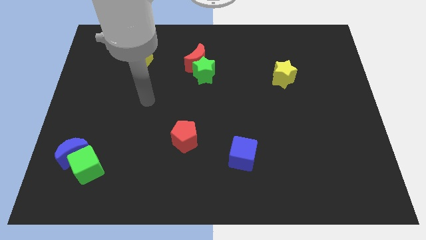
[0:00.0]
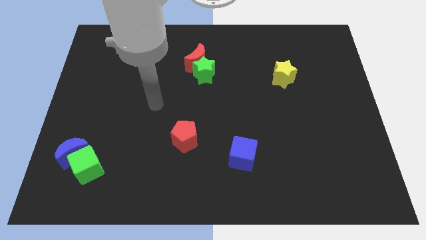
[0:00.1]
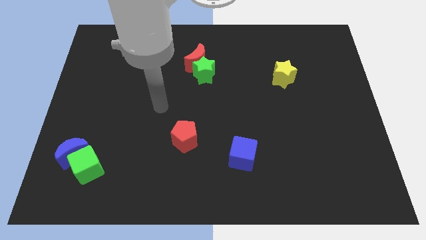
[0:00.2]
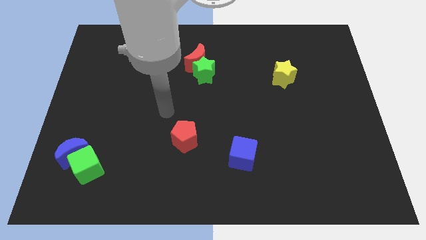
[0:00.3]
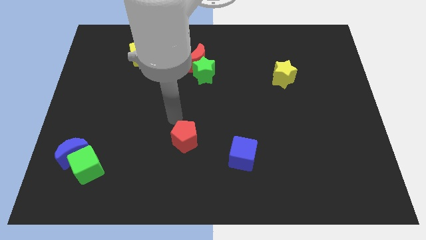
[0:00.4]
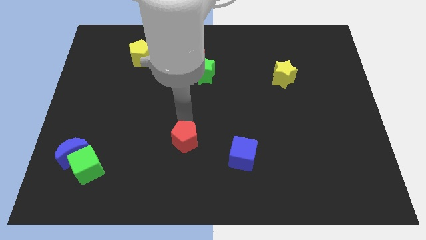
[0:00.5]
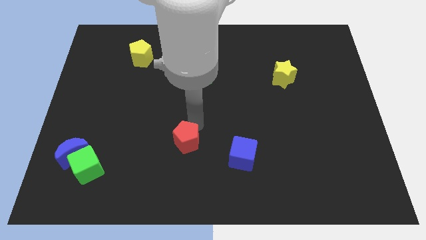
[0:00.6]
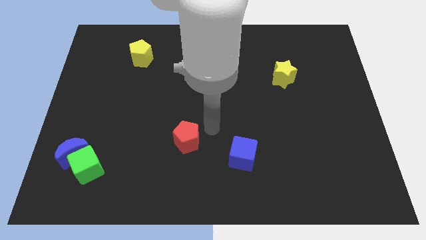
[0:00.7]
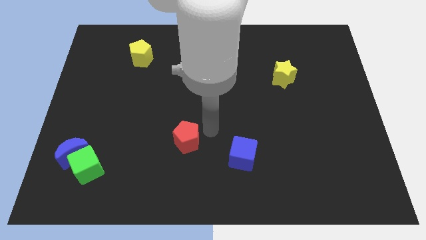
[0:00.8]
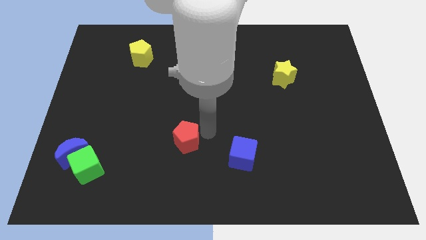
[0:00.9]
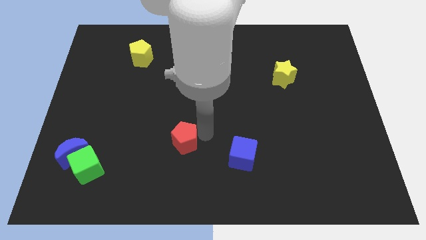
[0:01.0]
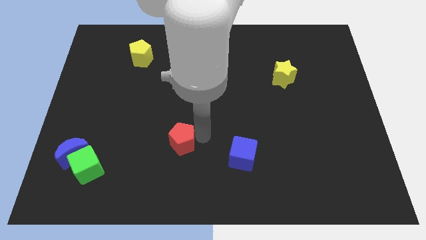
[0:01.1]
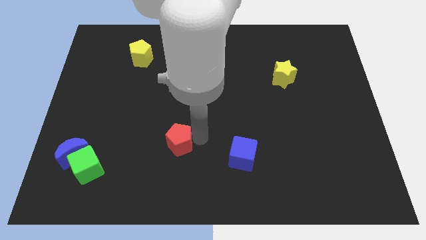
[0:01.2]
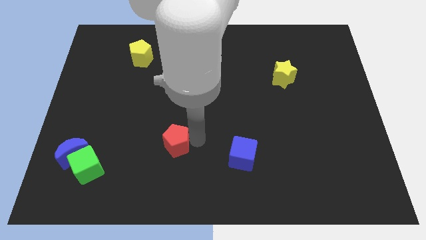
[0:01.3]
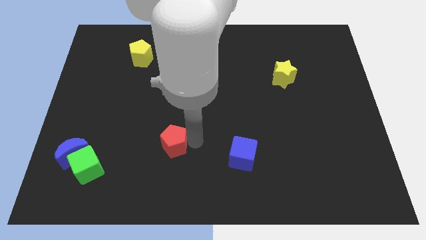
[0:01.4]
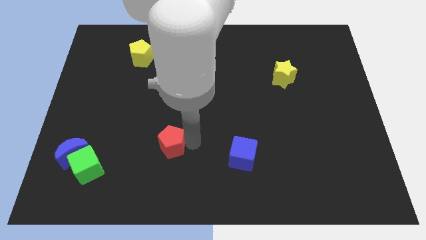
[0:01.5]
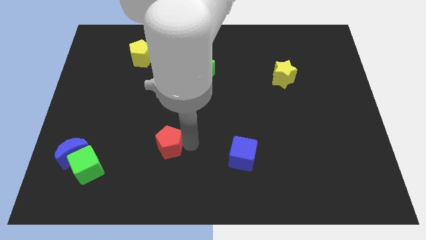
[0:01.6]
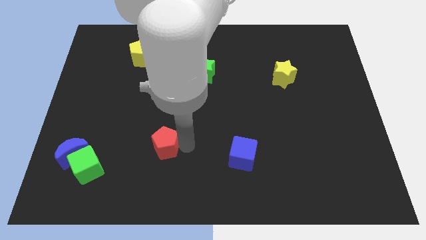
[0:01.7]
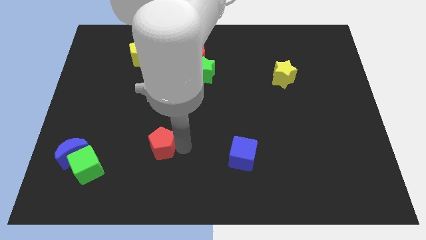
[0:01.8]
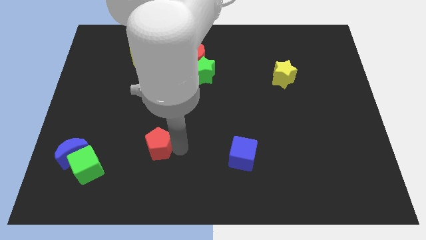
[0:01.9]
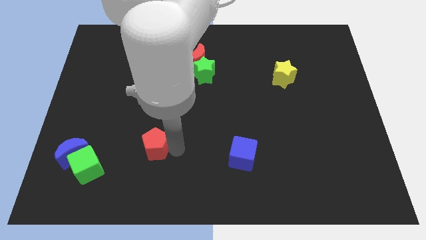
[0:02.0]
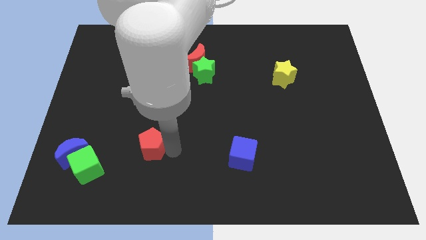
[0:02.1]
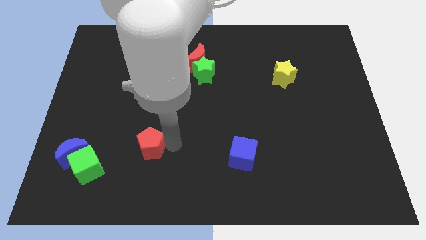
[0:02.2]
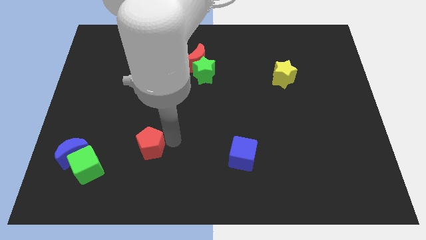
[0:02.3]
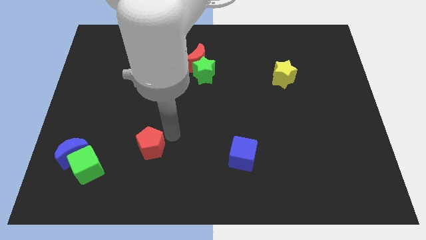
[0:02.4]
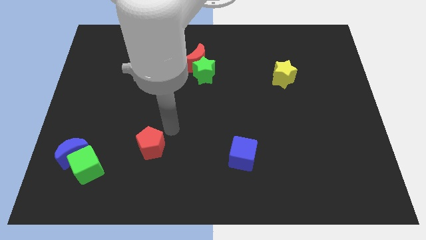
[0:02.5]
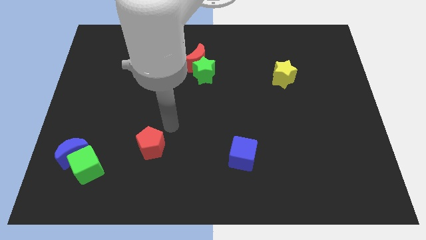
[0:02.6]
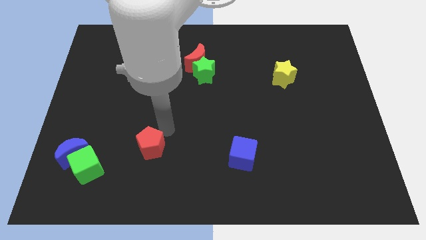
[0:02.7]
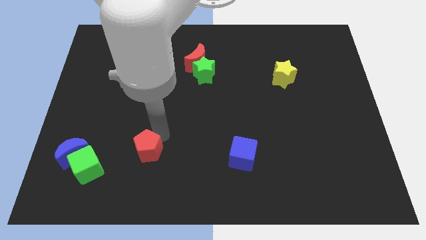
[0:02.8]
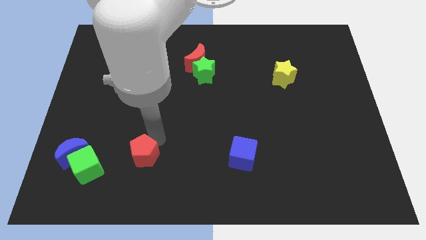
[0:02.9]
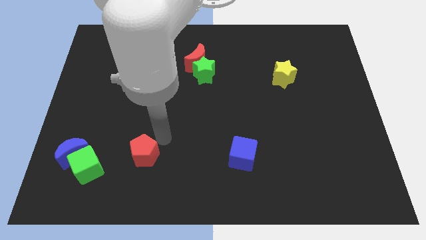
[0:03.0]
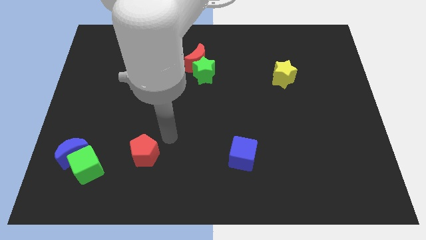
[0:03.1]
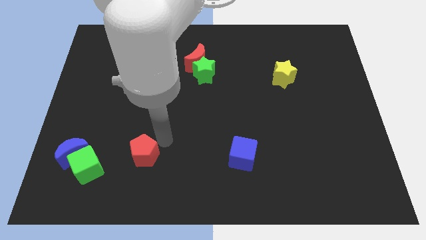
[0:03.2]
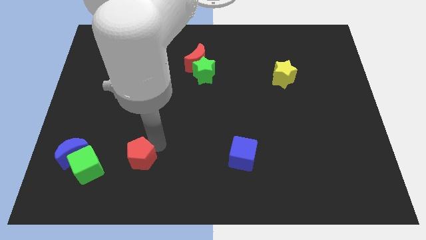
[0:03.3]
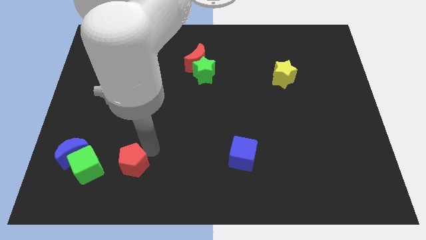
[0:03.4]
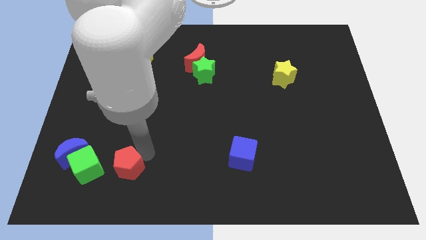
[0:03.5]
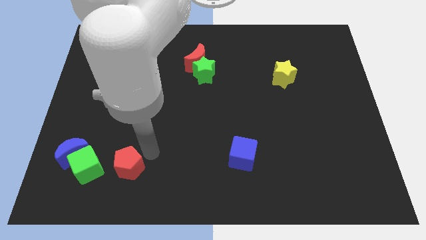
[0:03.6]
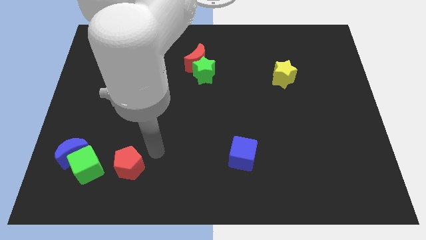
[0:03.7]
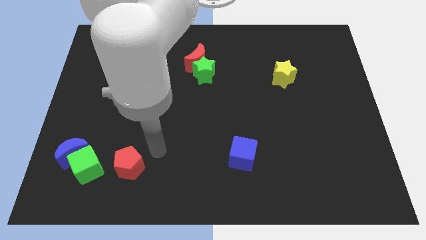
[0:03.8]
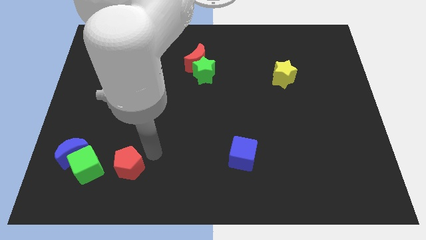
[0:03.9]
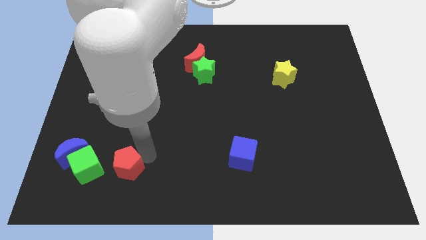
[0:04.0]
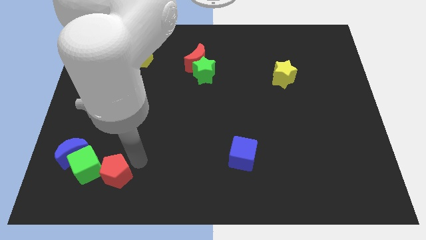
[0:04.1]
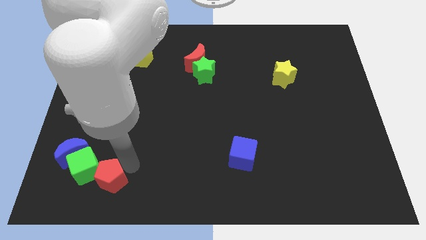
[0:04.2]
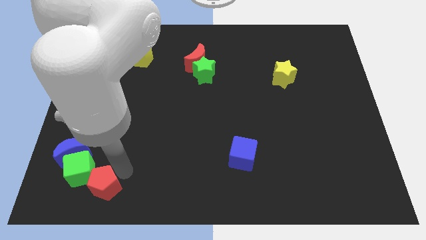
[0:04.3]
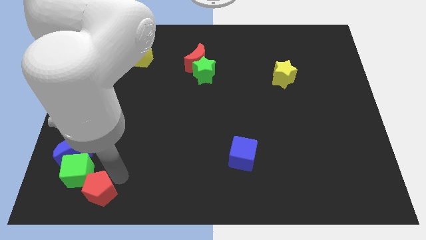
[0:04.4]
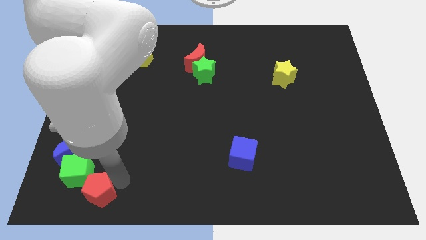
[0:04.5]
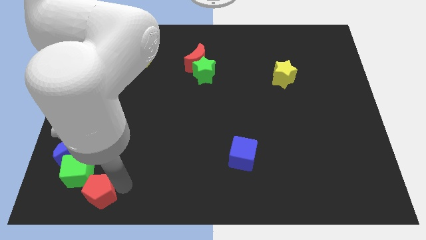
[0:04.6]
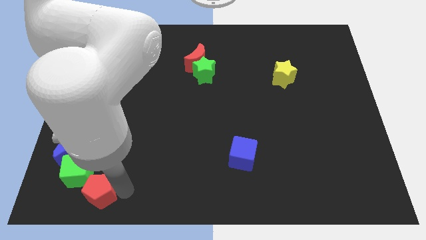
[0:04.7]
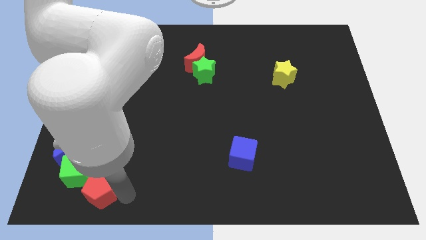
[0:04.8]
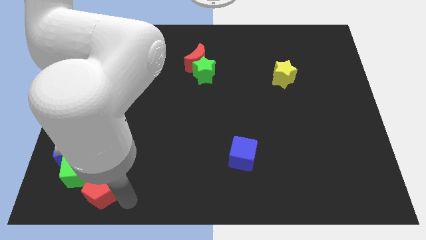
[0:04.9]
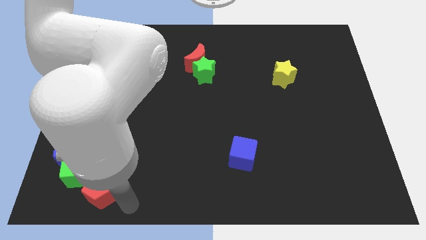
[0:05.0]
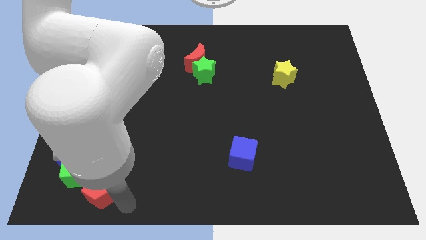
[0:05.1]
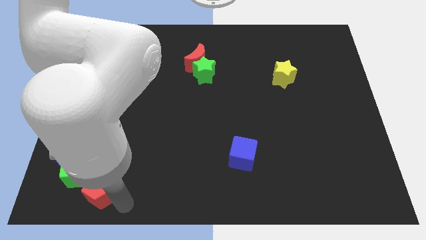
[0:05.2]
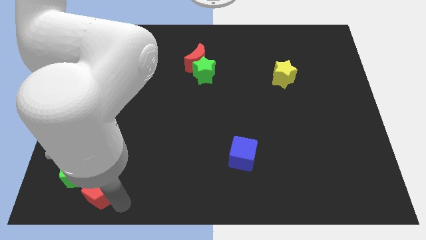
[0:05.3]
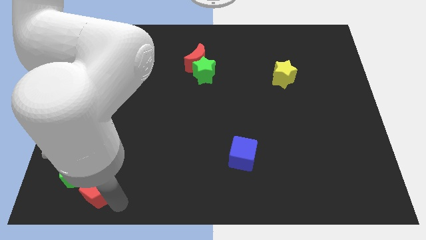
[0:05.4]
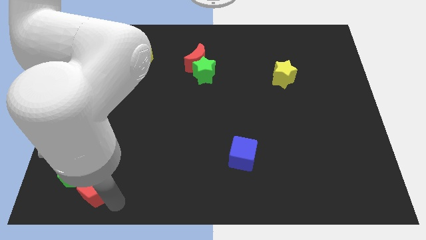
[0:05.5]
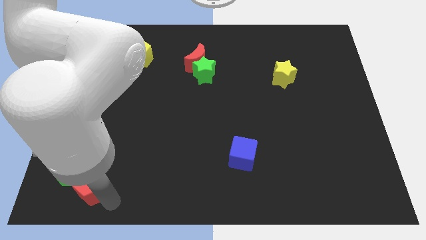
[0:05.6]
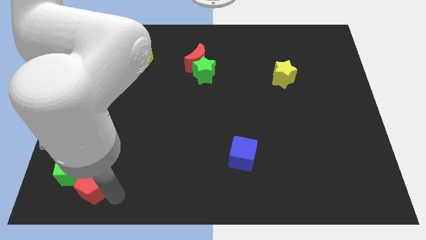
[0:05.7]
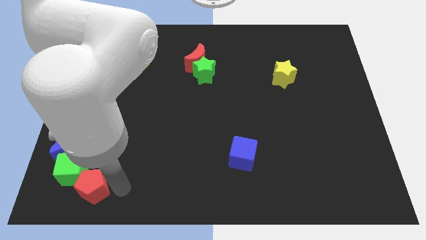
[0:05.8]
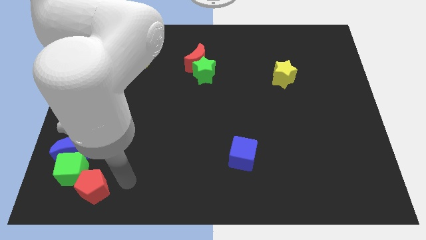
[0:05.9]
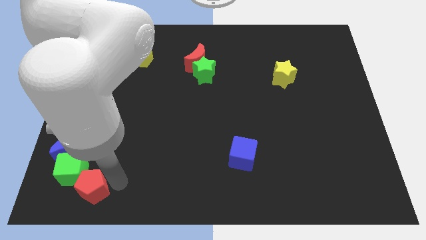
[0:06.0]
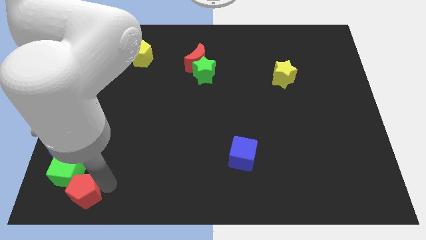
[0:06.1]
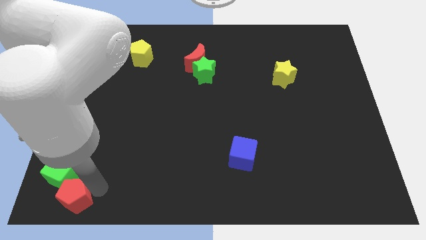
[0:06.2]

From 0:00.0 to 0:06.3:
move the red pentagon to the lower left corner

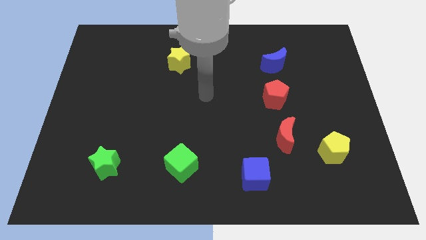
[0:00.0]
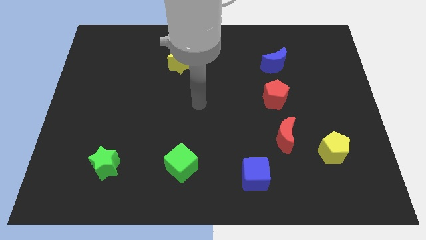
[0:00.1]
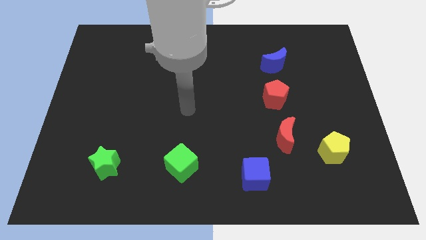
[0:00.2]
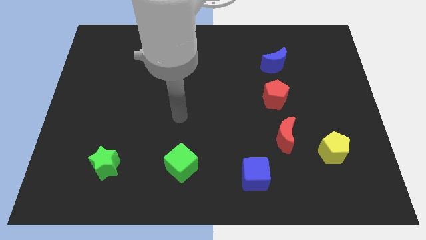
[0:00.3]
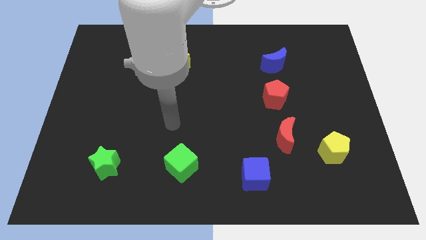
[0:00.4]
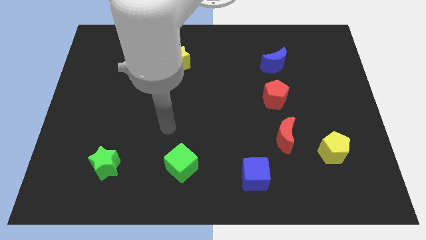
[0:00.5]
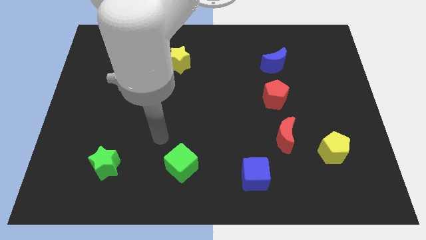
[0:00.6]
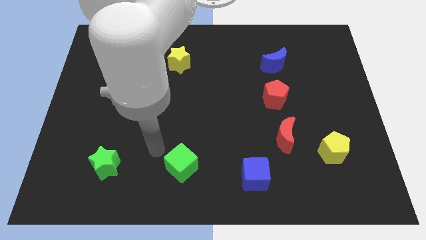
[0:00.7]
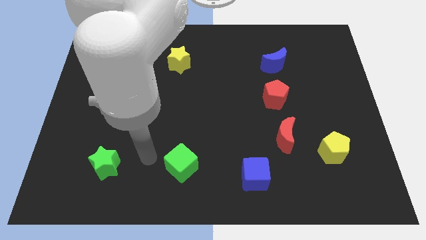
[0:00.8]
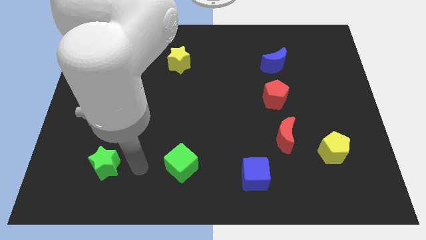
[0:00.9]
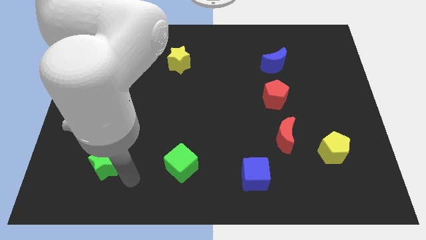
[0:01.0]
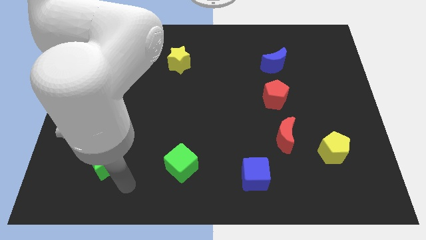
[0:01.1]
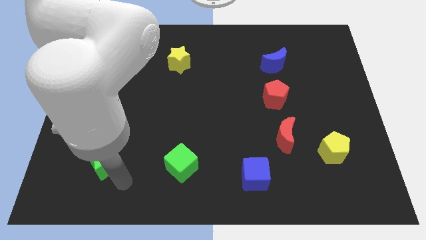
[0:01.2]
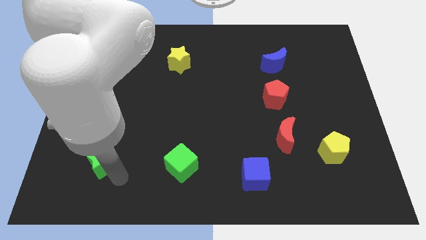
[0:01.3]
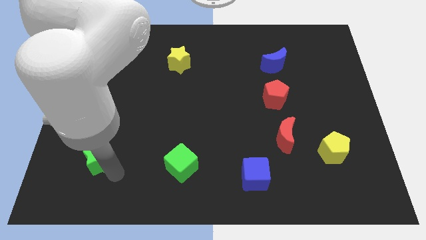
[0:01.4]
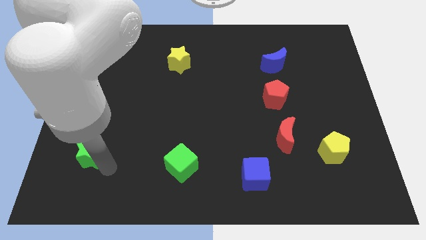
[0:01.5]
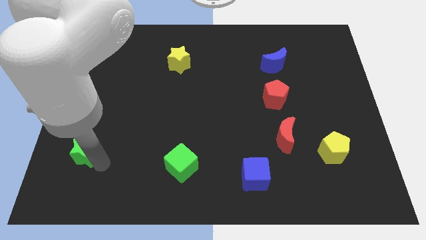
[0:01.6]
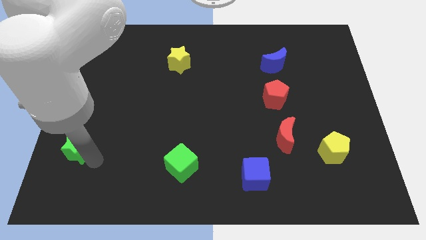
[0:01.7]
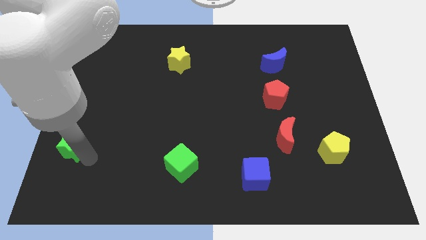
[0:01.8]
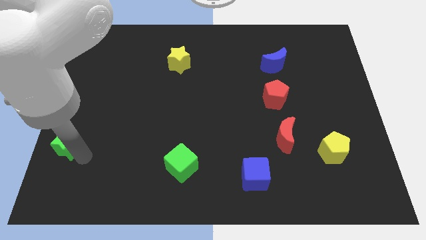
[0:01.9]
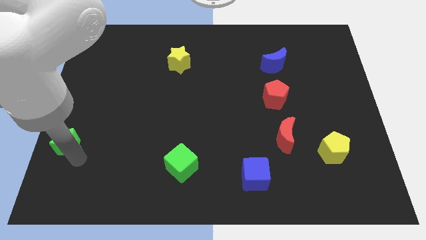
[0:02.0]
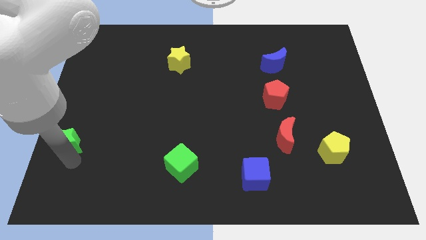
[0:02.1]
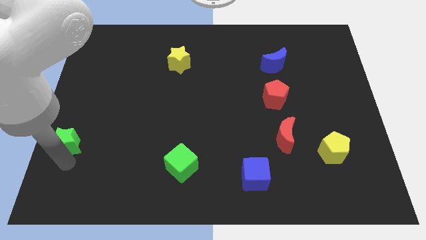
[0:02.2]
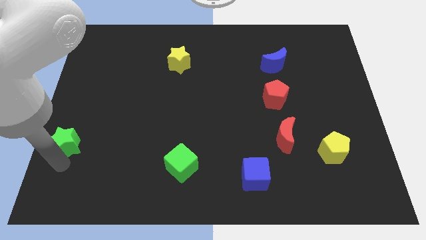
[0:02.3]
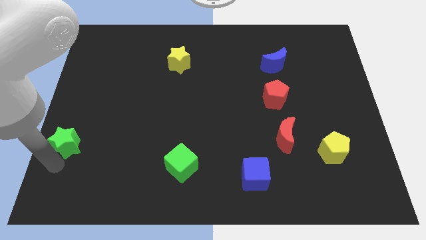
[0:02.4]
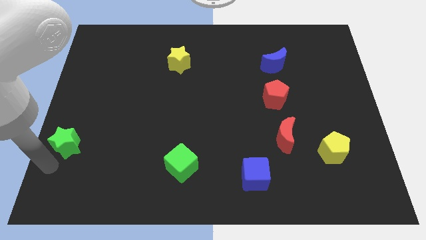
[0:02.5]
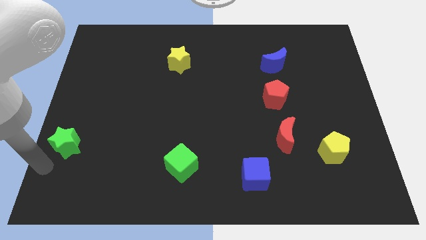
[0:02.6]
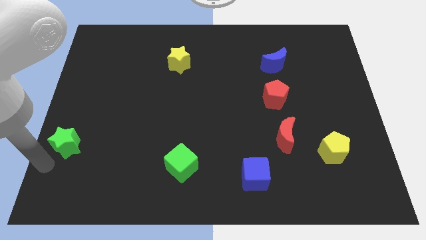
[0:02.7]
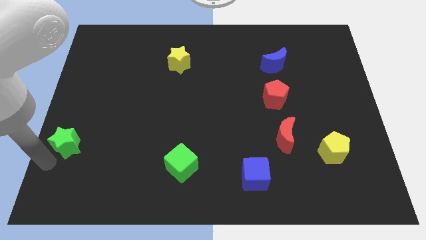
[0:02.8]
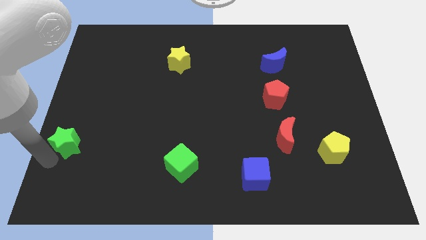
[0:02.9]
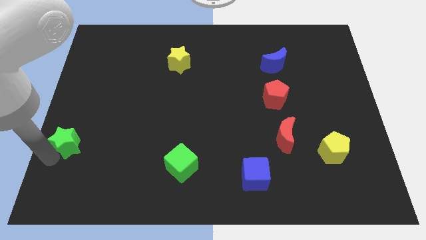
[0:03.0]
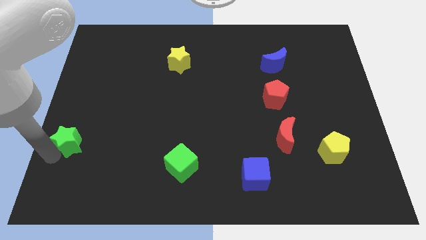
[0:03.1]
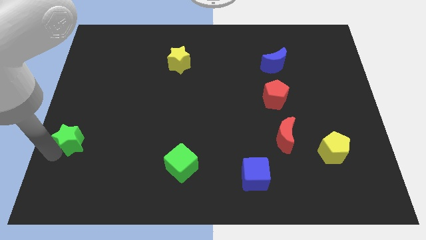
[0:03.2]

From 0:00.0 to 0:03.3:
push the green star to the left side of the board
